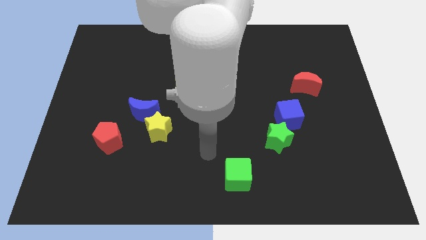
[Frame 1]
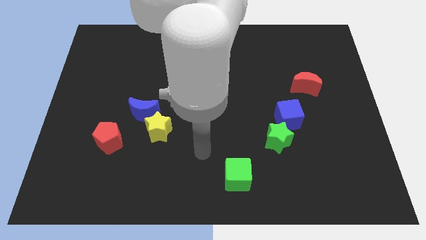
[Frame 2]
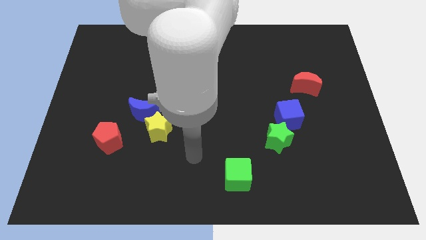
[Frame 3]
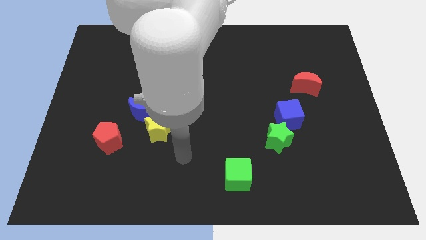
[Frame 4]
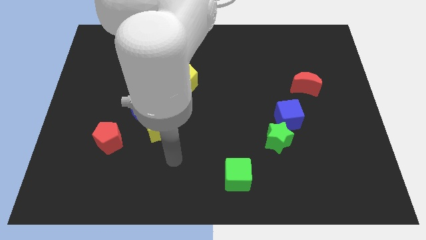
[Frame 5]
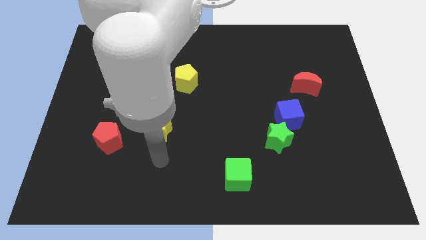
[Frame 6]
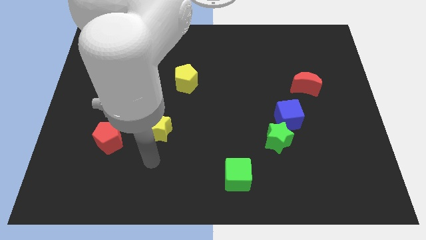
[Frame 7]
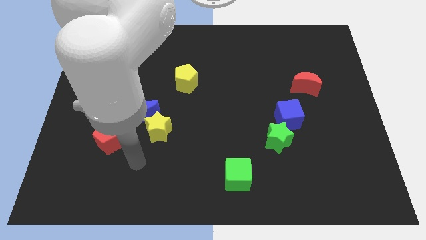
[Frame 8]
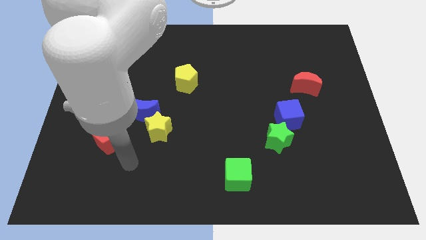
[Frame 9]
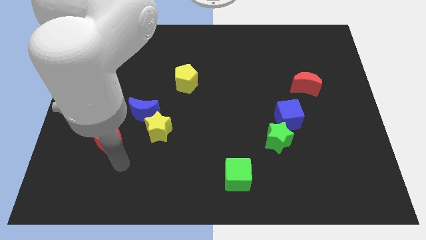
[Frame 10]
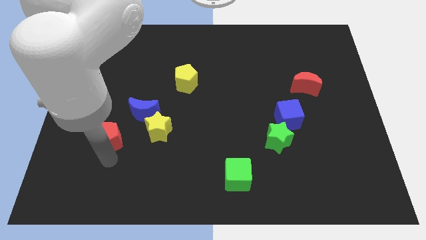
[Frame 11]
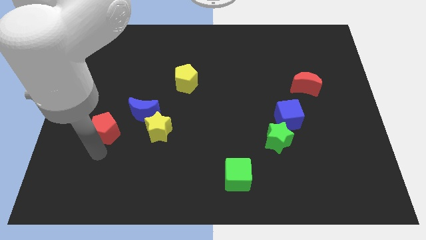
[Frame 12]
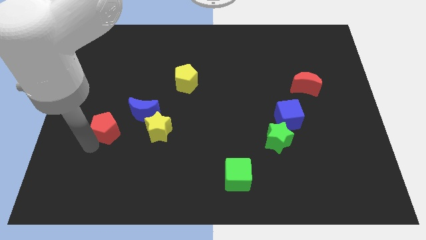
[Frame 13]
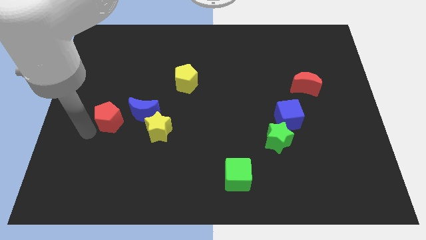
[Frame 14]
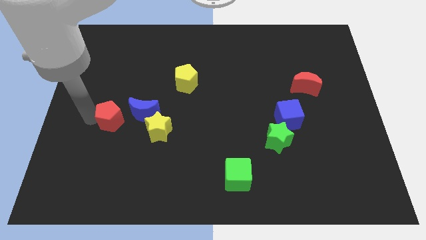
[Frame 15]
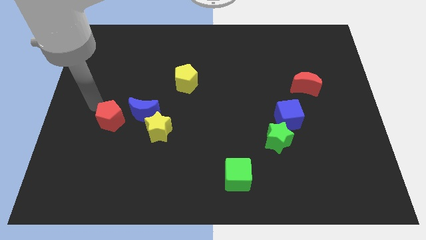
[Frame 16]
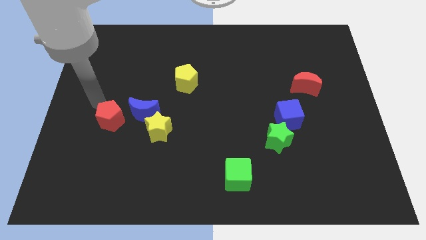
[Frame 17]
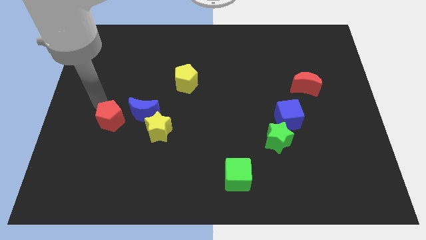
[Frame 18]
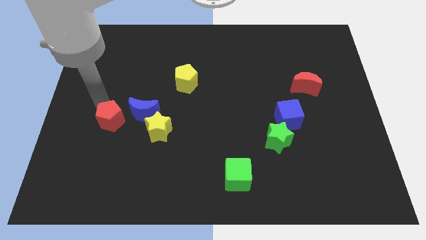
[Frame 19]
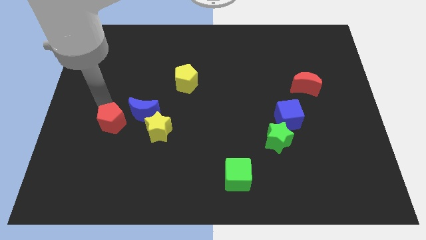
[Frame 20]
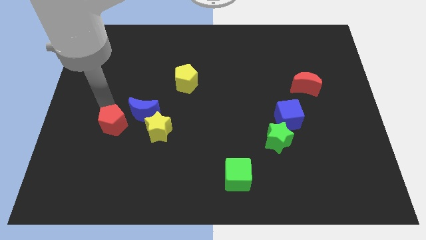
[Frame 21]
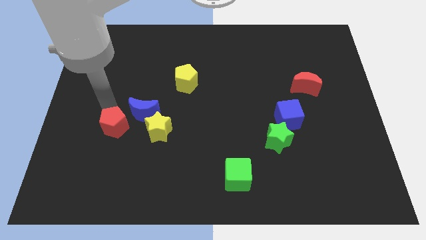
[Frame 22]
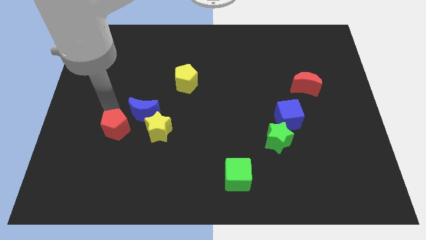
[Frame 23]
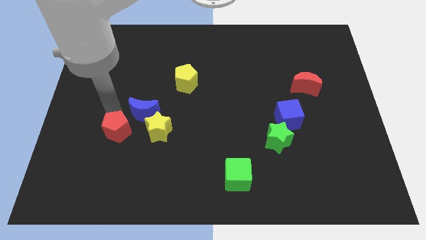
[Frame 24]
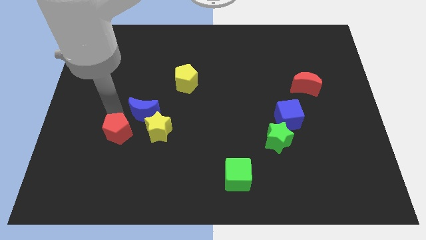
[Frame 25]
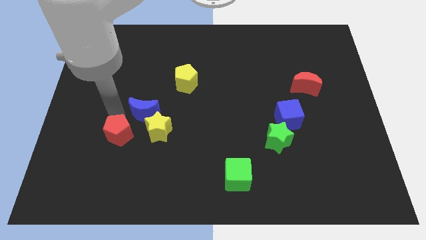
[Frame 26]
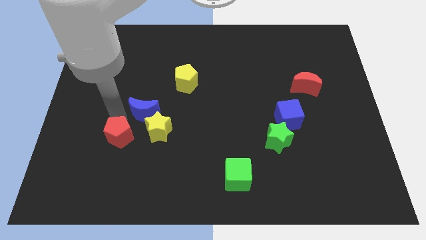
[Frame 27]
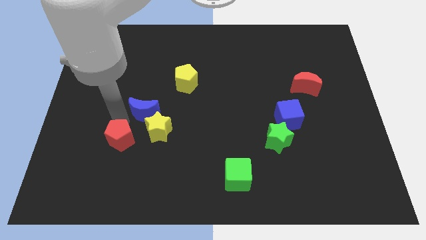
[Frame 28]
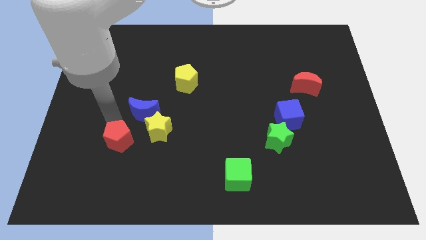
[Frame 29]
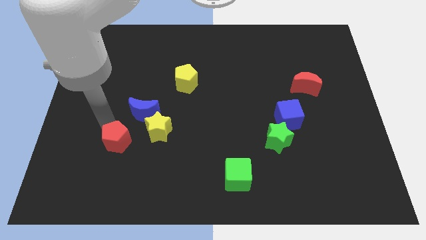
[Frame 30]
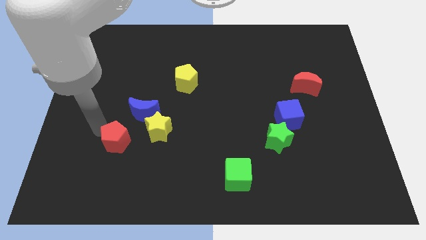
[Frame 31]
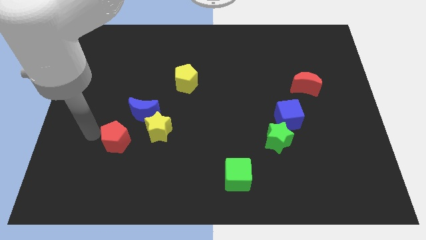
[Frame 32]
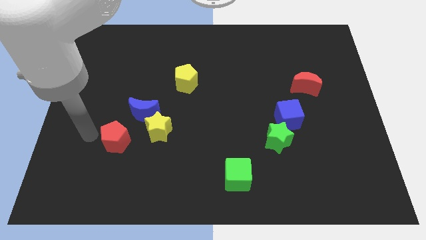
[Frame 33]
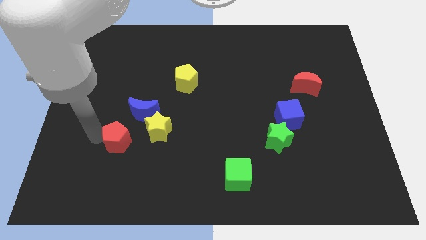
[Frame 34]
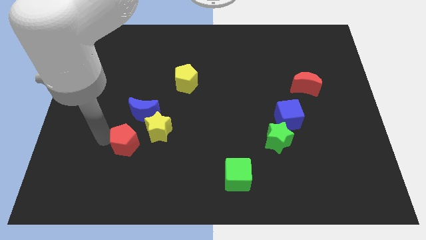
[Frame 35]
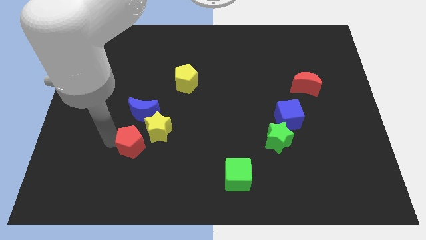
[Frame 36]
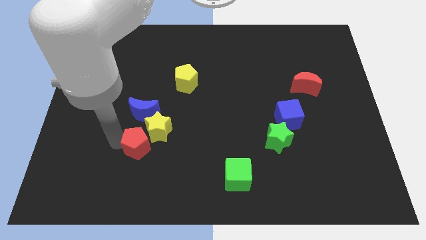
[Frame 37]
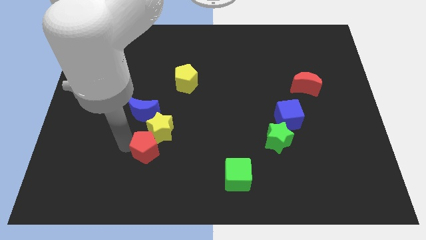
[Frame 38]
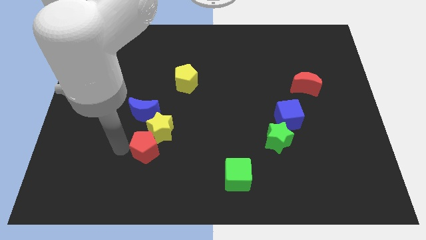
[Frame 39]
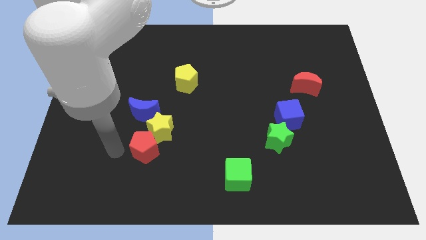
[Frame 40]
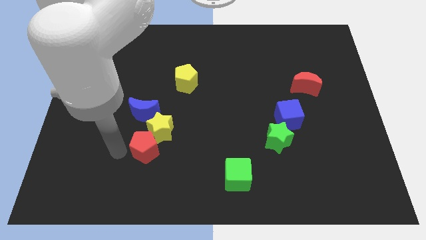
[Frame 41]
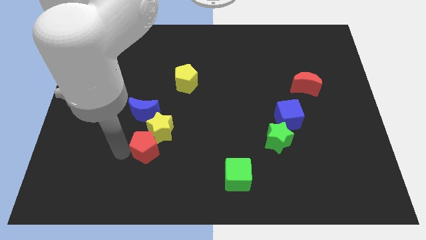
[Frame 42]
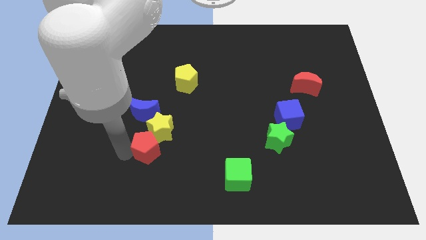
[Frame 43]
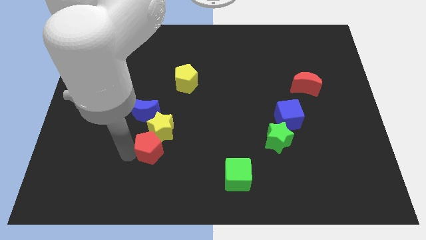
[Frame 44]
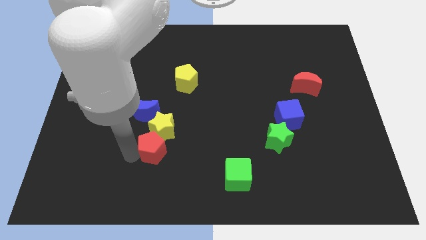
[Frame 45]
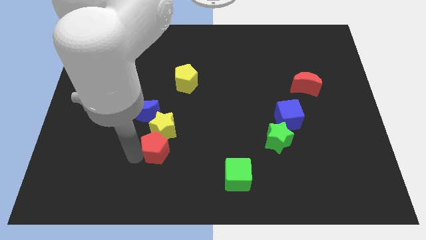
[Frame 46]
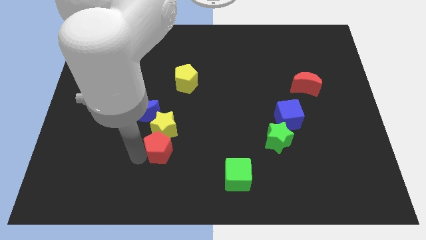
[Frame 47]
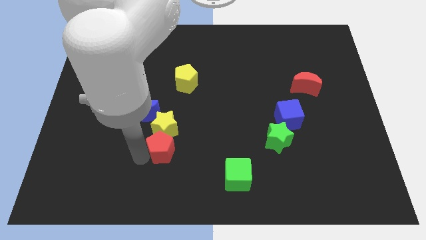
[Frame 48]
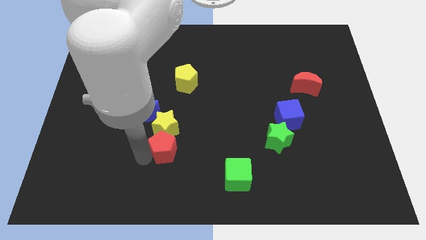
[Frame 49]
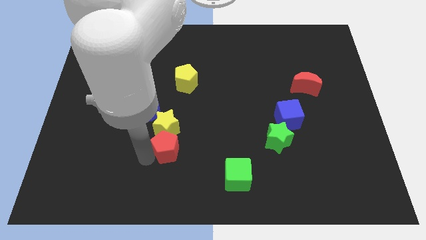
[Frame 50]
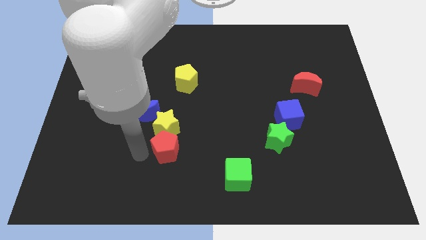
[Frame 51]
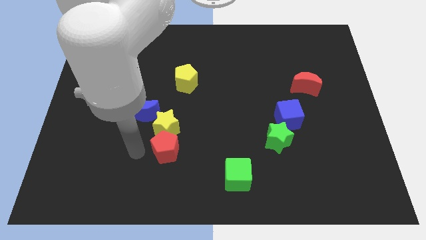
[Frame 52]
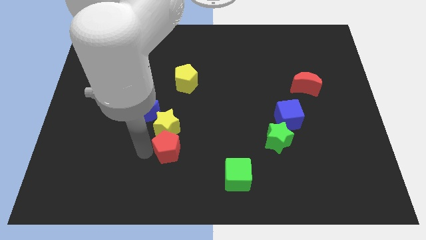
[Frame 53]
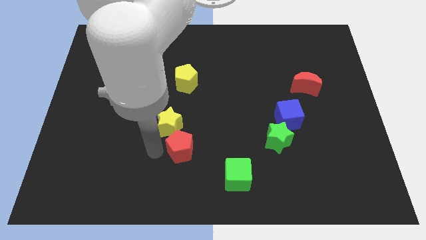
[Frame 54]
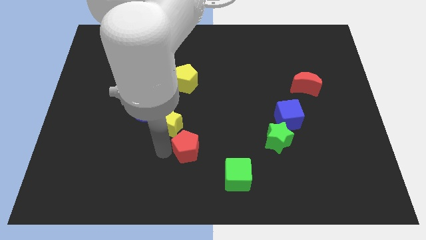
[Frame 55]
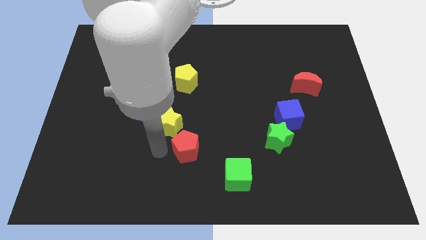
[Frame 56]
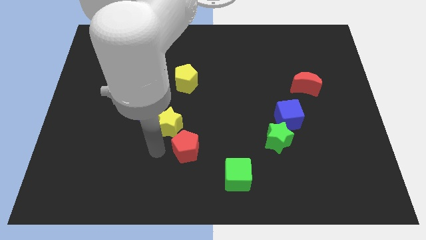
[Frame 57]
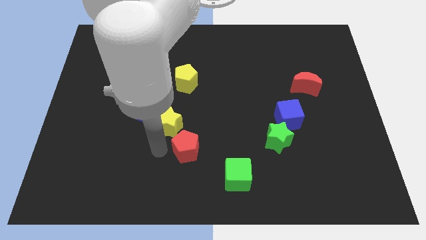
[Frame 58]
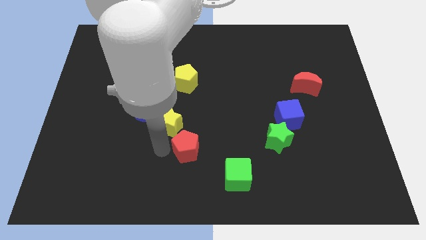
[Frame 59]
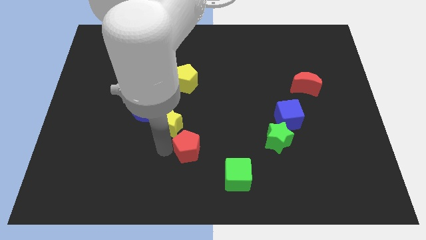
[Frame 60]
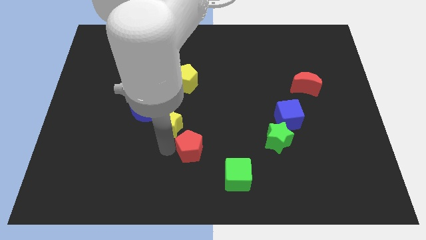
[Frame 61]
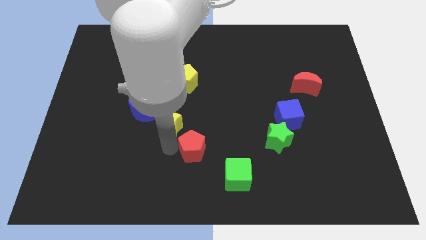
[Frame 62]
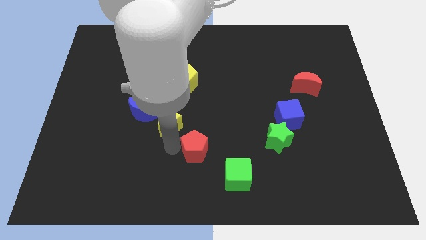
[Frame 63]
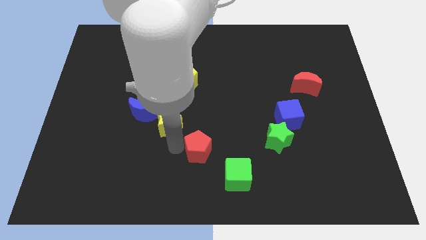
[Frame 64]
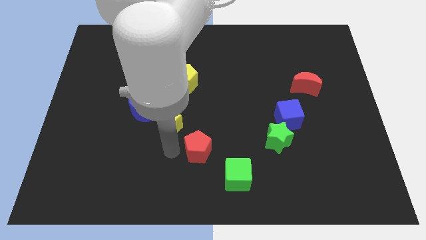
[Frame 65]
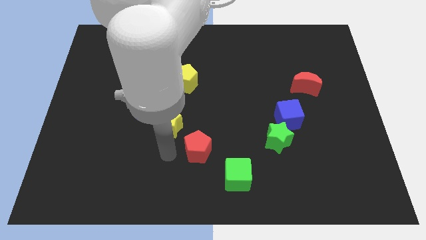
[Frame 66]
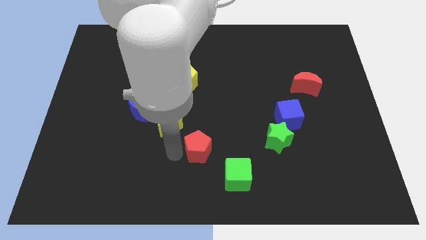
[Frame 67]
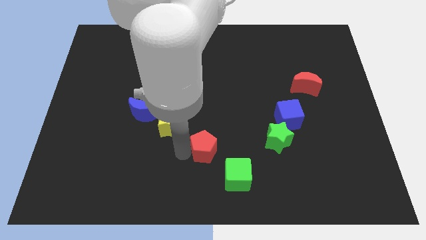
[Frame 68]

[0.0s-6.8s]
move the red pentagon right

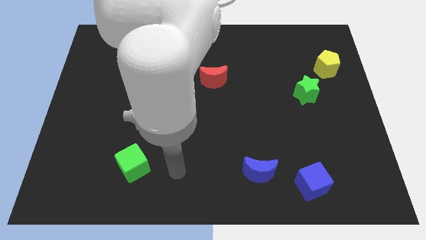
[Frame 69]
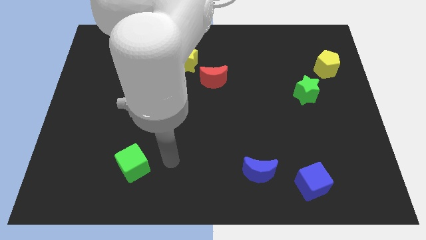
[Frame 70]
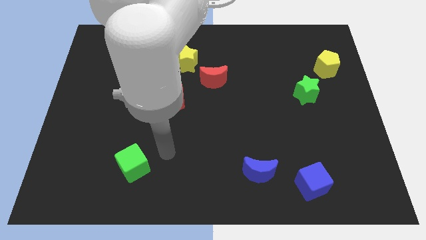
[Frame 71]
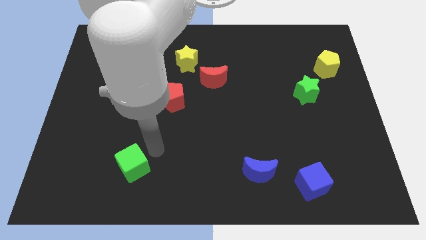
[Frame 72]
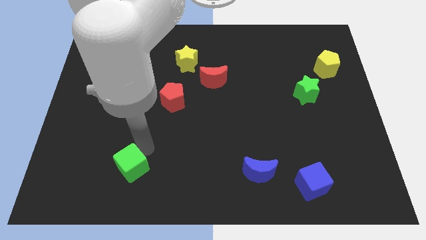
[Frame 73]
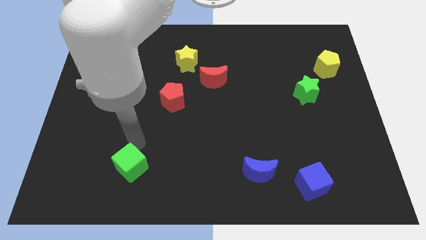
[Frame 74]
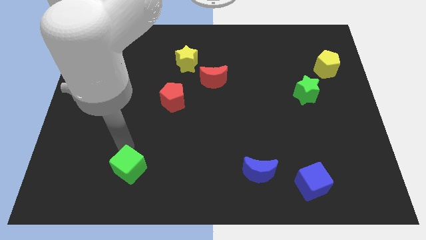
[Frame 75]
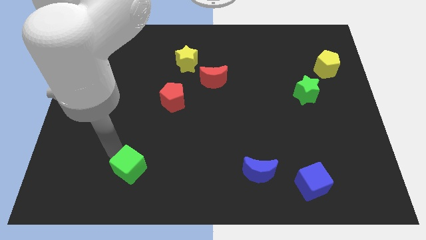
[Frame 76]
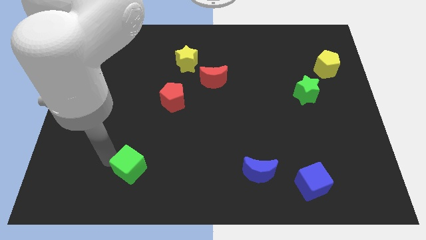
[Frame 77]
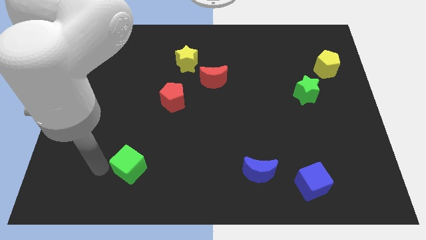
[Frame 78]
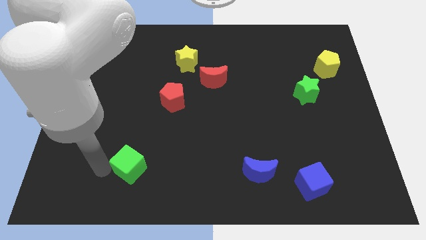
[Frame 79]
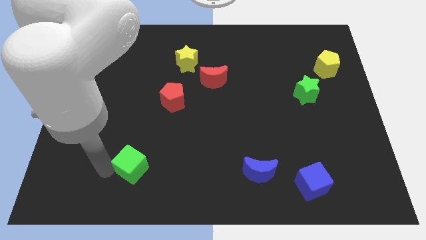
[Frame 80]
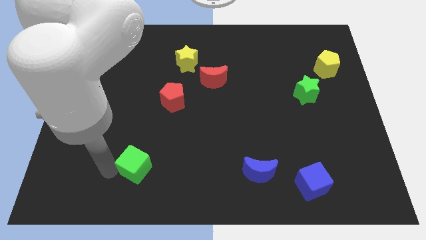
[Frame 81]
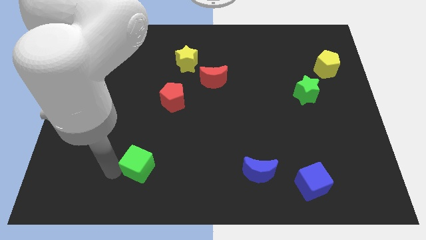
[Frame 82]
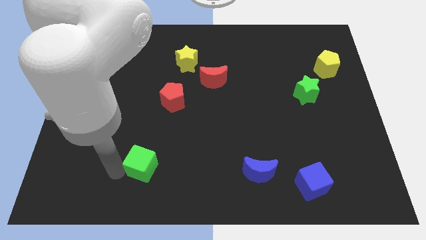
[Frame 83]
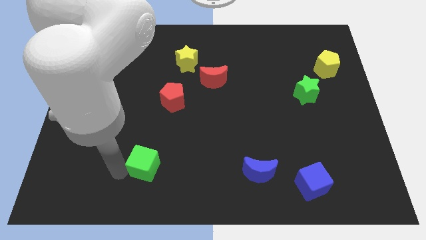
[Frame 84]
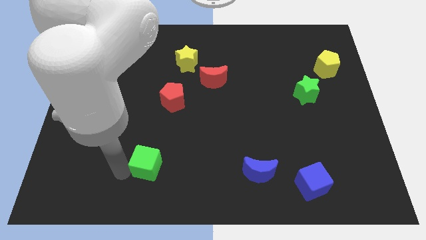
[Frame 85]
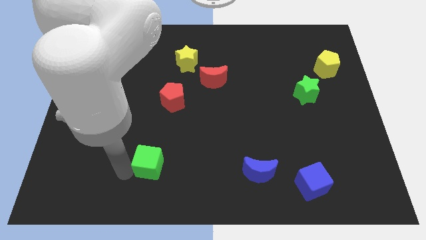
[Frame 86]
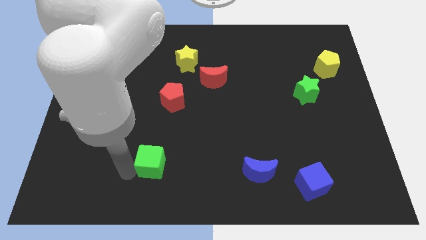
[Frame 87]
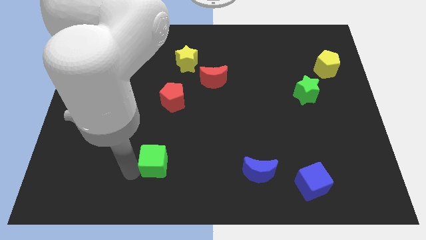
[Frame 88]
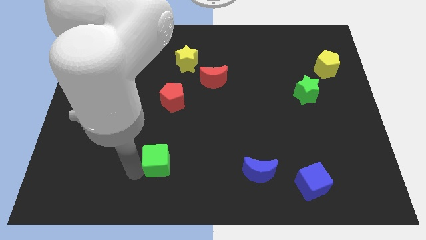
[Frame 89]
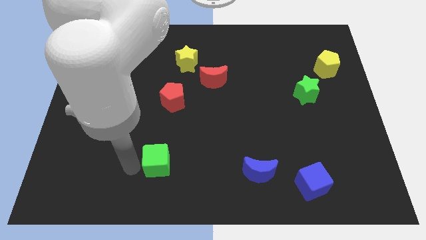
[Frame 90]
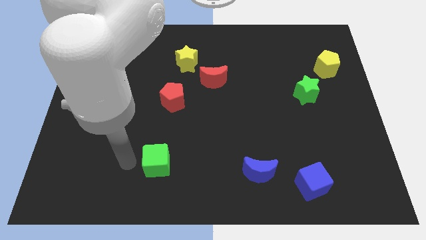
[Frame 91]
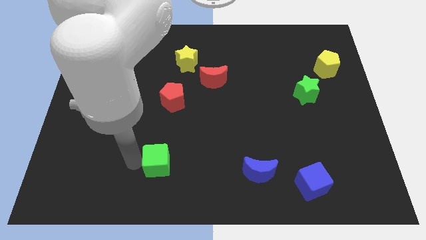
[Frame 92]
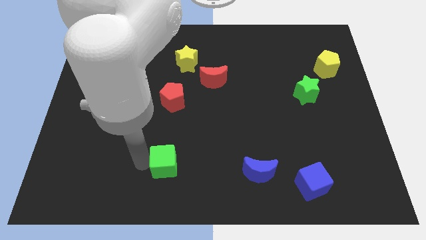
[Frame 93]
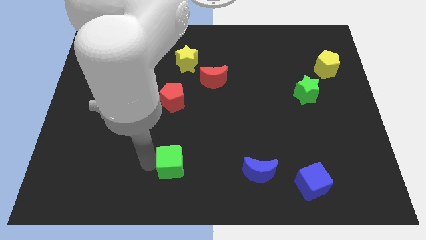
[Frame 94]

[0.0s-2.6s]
push the green cube to the right a little bit
